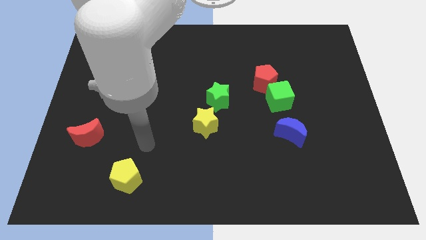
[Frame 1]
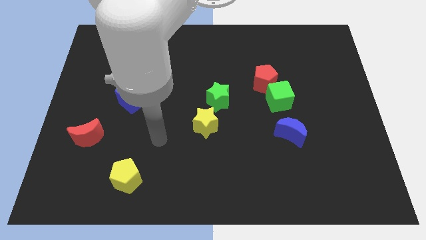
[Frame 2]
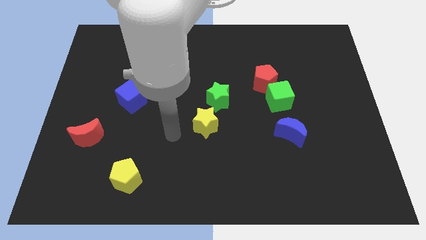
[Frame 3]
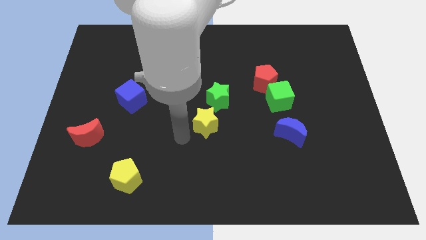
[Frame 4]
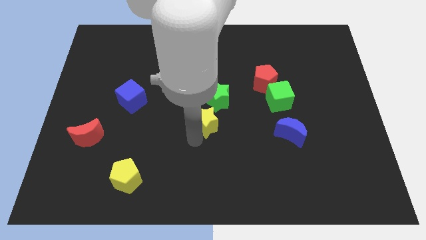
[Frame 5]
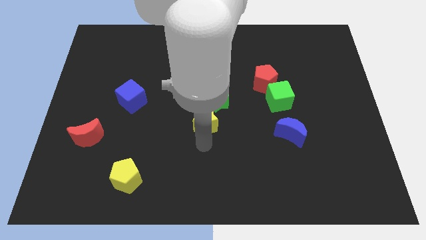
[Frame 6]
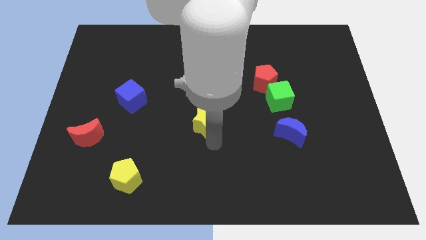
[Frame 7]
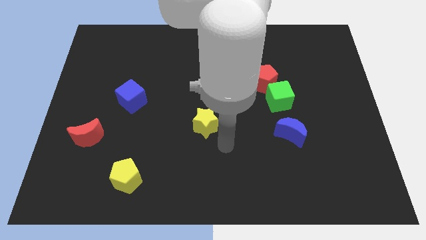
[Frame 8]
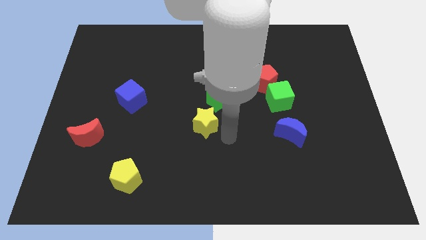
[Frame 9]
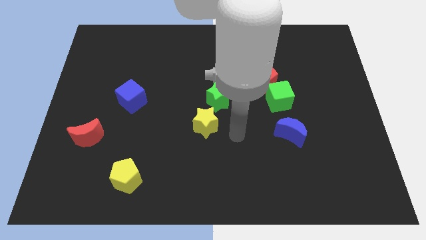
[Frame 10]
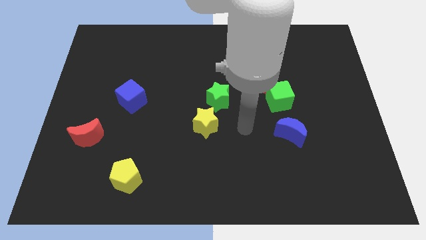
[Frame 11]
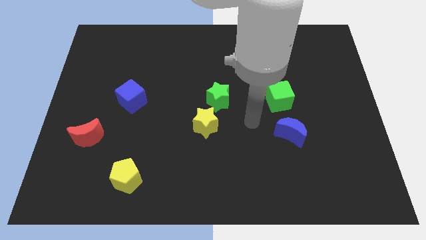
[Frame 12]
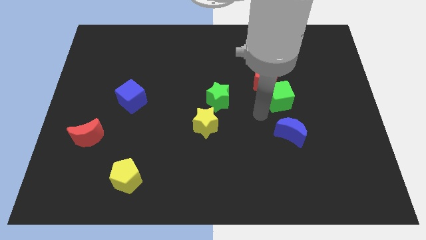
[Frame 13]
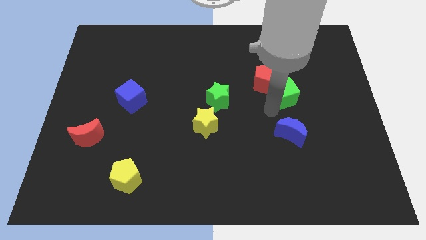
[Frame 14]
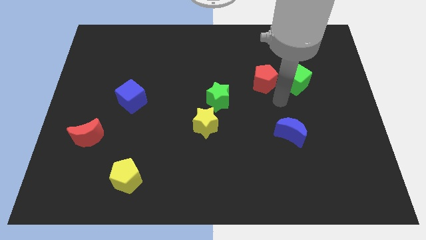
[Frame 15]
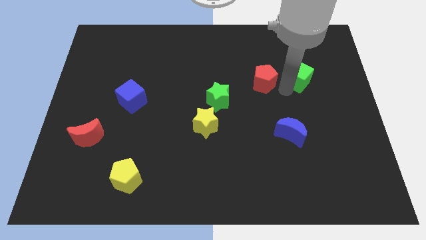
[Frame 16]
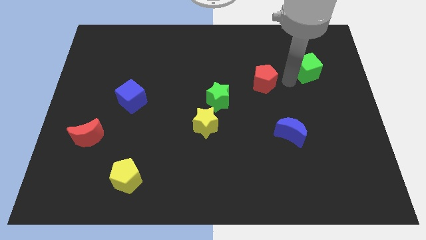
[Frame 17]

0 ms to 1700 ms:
pull the red pentagon apart from the green cube

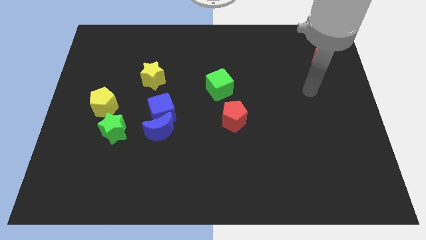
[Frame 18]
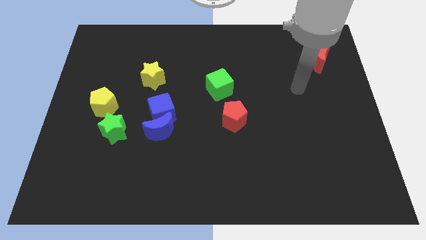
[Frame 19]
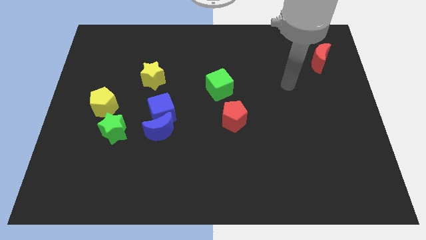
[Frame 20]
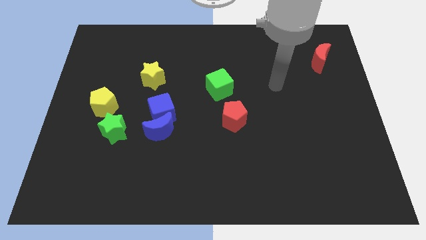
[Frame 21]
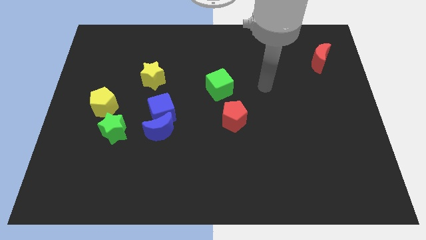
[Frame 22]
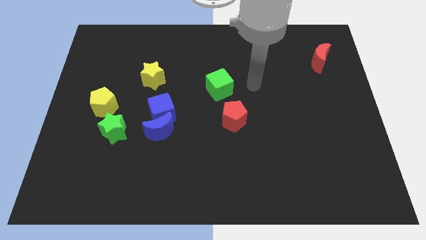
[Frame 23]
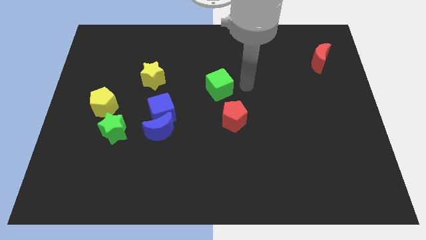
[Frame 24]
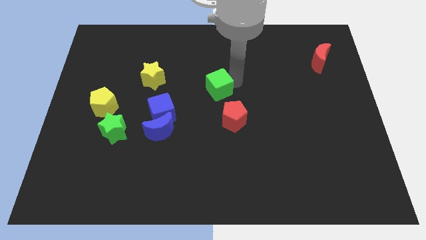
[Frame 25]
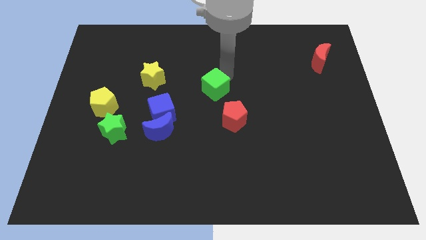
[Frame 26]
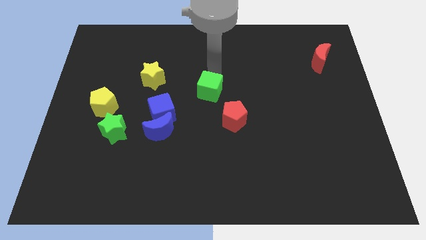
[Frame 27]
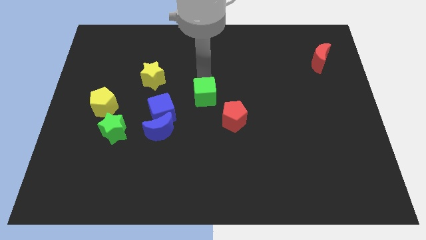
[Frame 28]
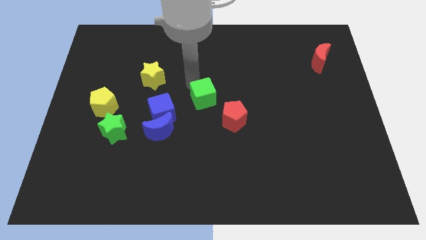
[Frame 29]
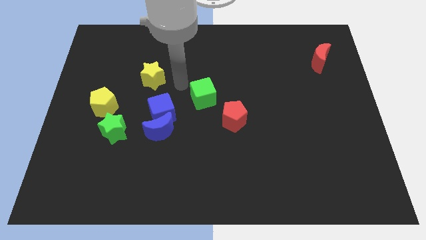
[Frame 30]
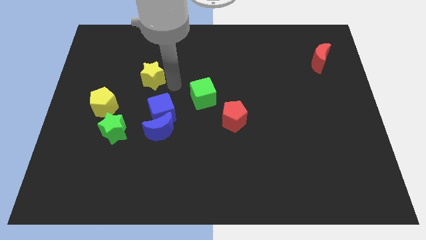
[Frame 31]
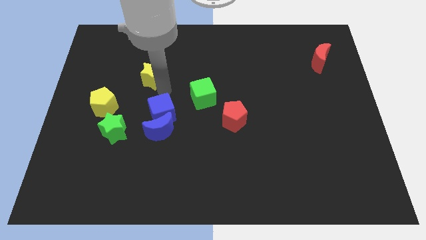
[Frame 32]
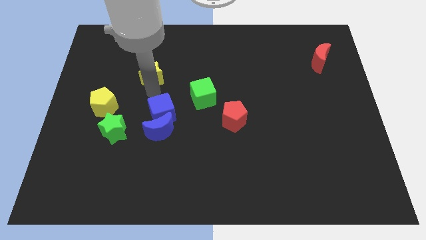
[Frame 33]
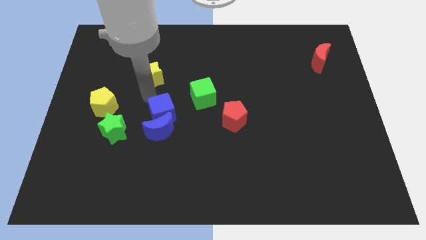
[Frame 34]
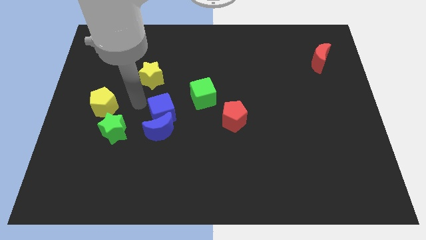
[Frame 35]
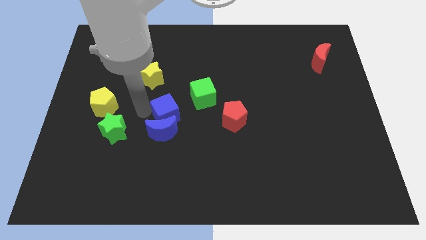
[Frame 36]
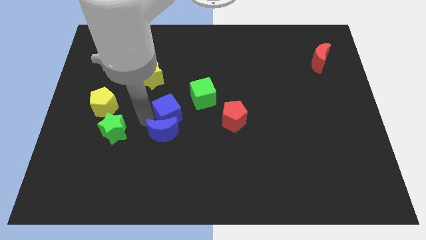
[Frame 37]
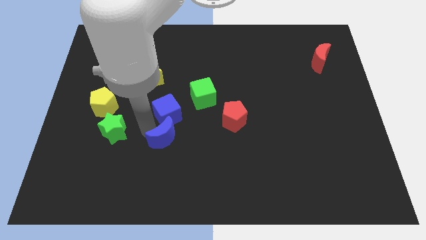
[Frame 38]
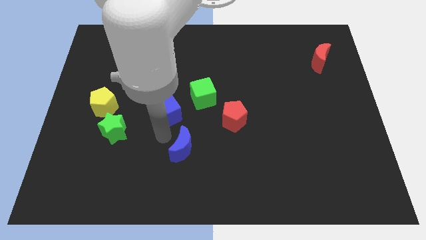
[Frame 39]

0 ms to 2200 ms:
pull the blue cube apart from the blue moon

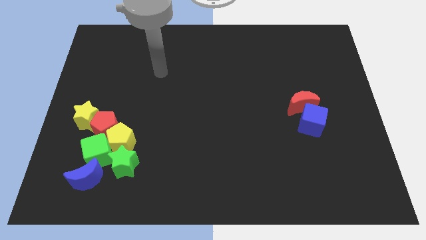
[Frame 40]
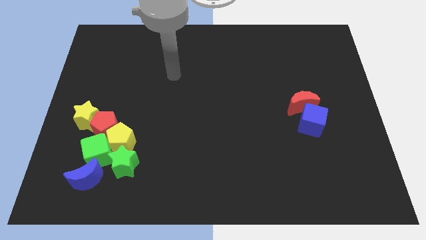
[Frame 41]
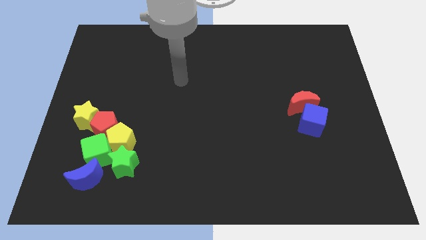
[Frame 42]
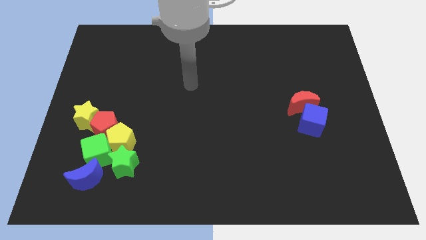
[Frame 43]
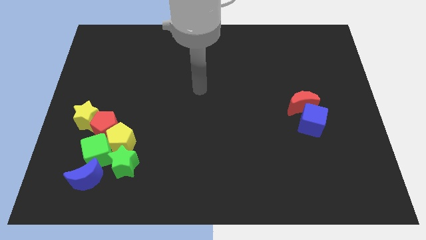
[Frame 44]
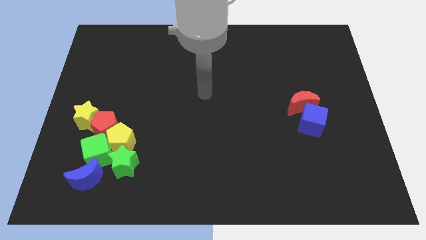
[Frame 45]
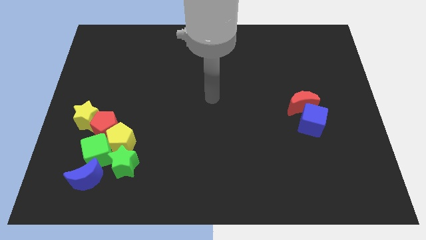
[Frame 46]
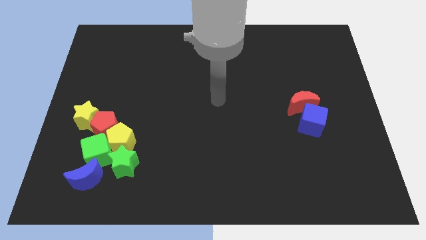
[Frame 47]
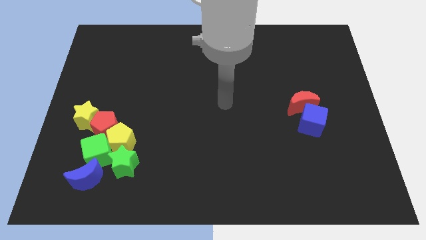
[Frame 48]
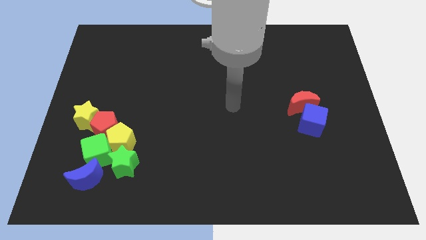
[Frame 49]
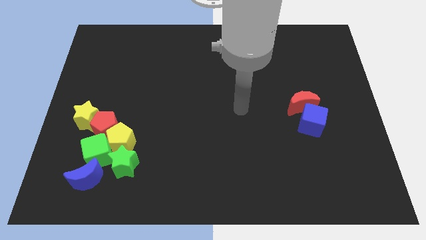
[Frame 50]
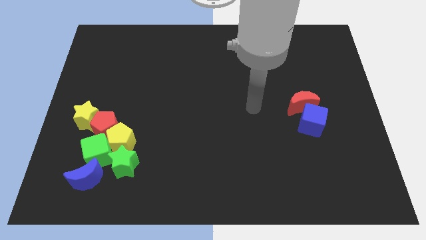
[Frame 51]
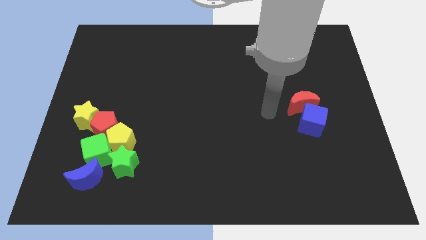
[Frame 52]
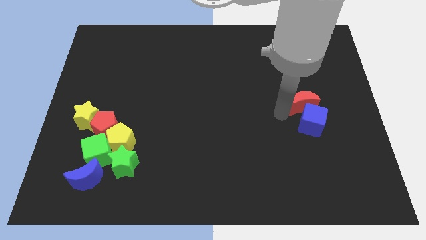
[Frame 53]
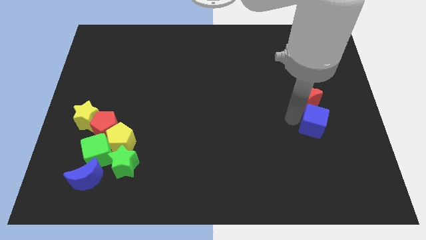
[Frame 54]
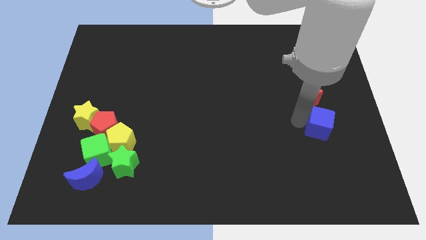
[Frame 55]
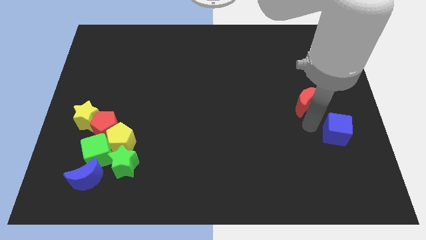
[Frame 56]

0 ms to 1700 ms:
pull the red moon apart from the blue cube

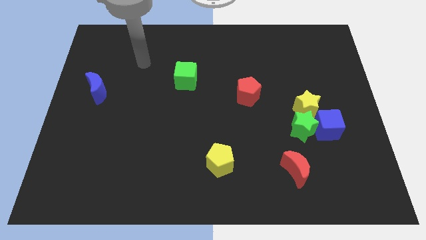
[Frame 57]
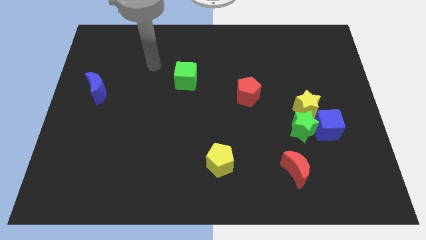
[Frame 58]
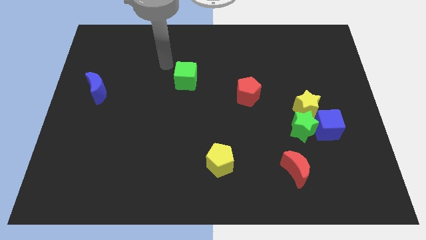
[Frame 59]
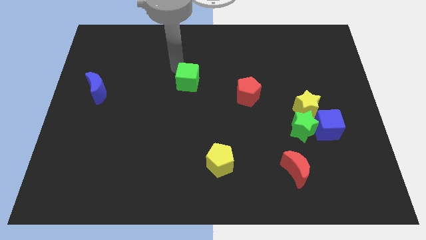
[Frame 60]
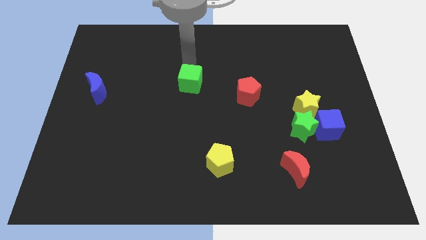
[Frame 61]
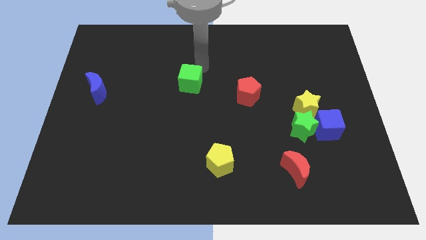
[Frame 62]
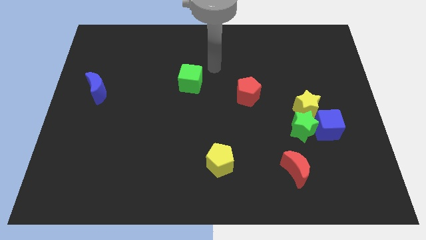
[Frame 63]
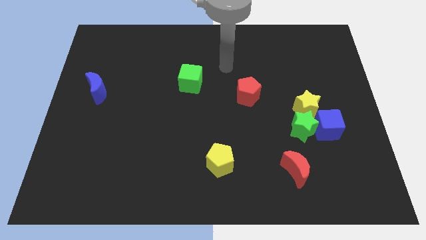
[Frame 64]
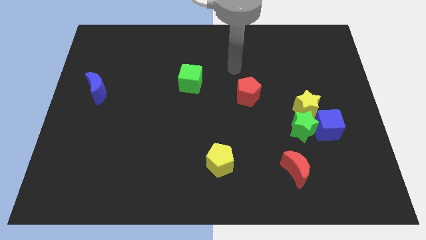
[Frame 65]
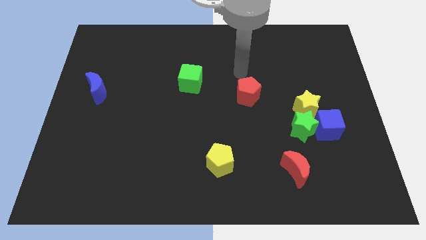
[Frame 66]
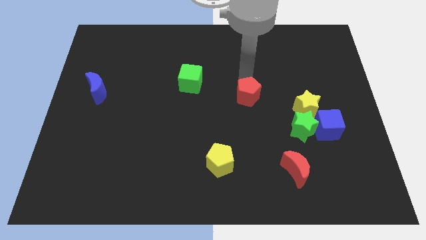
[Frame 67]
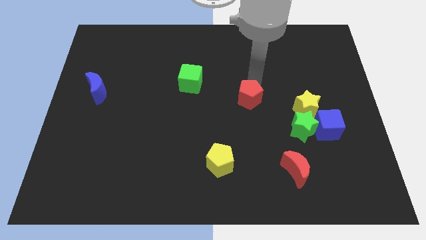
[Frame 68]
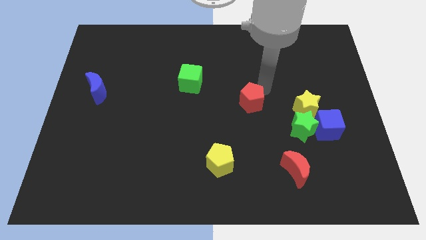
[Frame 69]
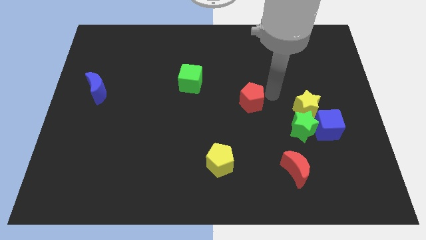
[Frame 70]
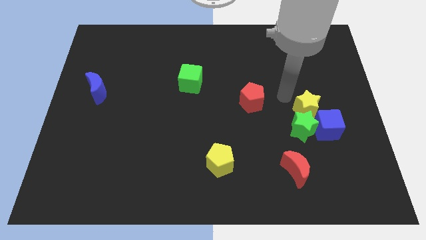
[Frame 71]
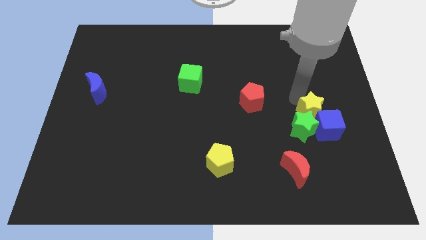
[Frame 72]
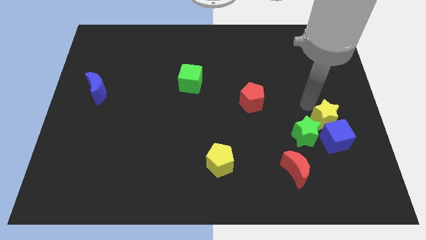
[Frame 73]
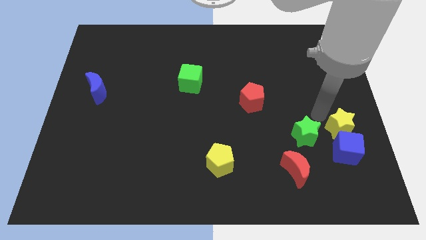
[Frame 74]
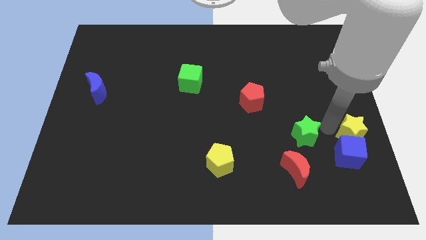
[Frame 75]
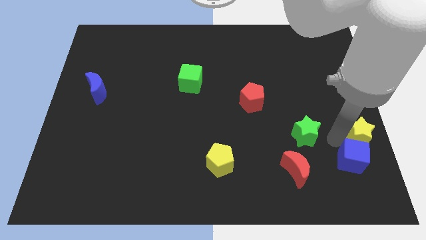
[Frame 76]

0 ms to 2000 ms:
separate the green star from the blue cube and yellow star

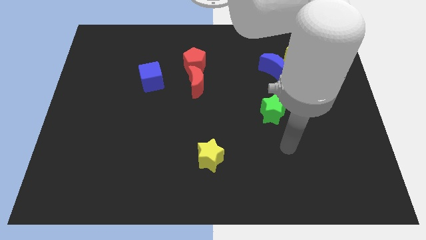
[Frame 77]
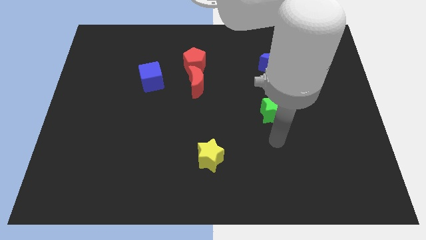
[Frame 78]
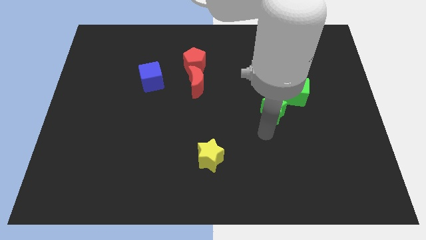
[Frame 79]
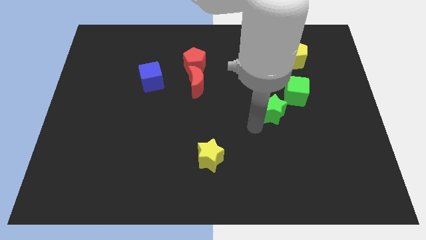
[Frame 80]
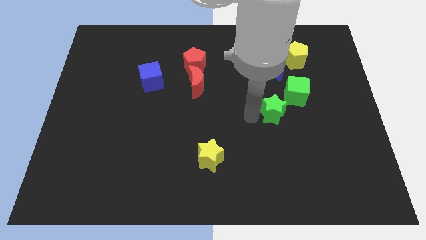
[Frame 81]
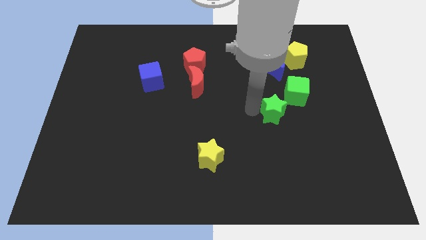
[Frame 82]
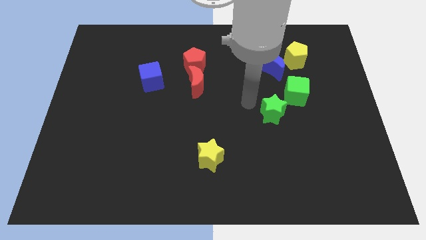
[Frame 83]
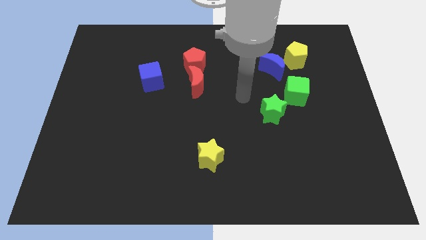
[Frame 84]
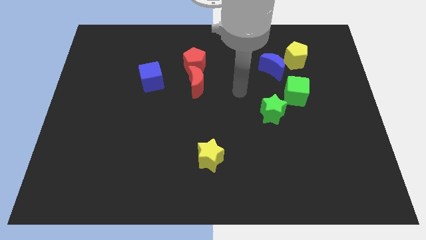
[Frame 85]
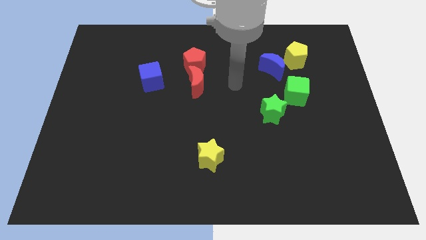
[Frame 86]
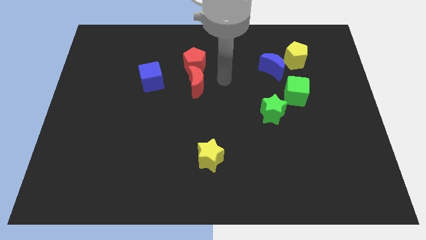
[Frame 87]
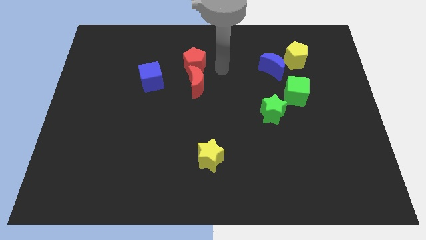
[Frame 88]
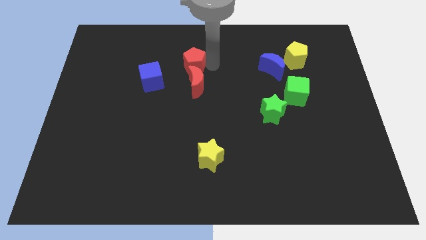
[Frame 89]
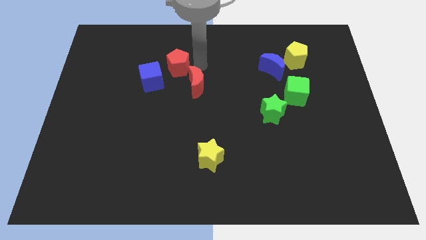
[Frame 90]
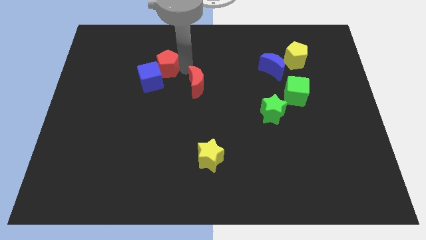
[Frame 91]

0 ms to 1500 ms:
move the red moon away from the red pentagon
